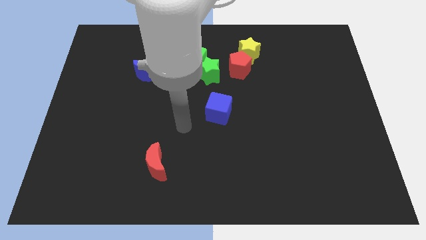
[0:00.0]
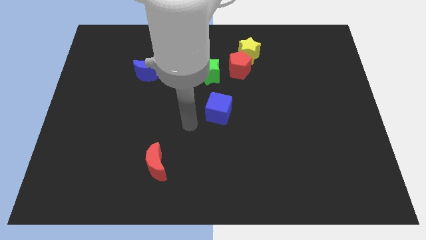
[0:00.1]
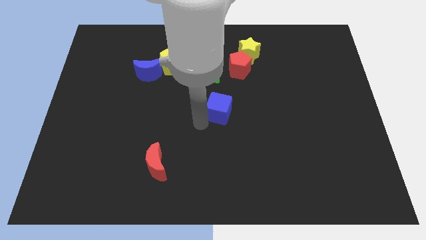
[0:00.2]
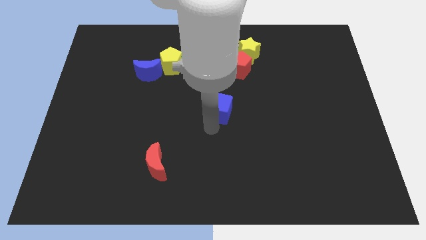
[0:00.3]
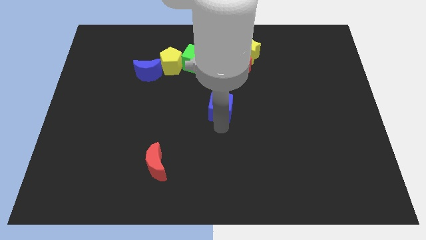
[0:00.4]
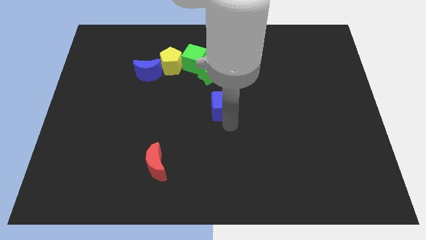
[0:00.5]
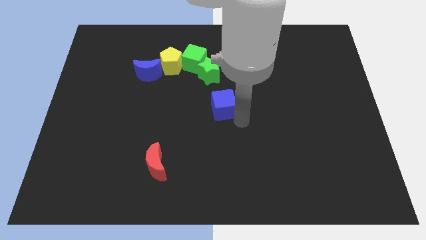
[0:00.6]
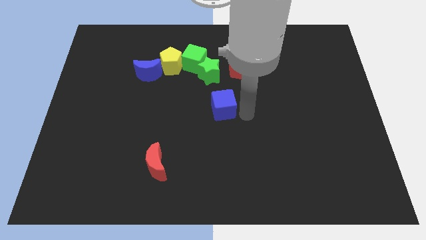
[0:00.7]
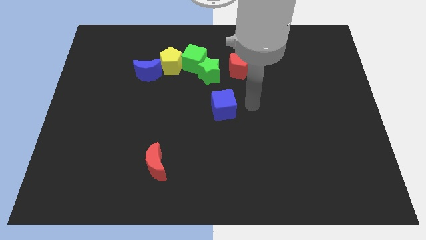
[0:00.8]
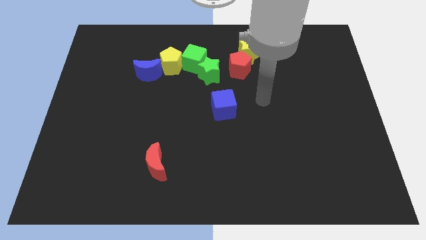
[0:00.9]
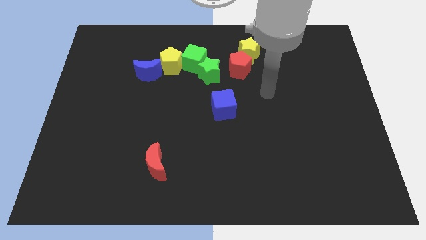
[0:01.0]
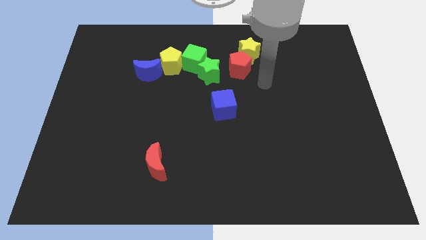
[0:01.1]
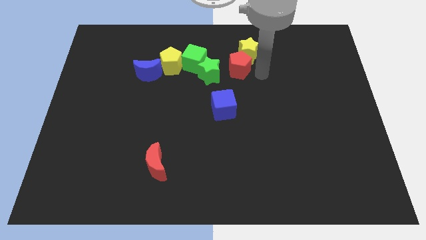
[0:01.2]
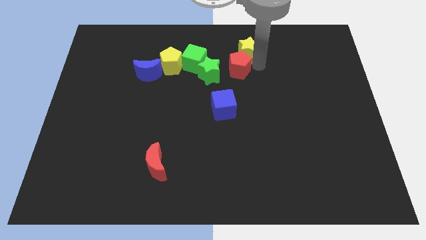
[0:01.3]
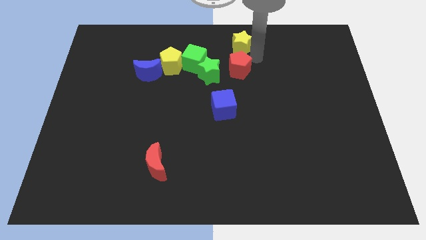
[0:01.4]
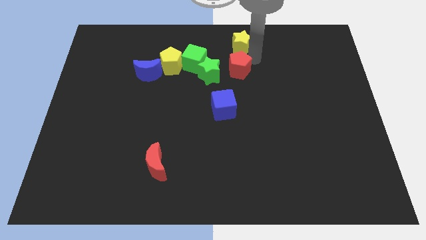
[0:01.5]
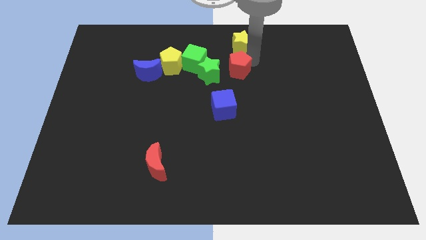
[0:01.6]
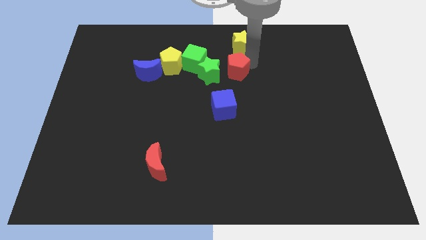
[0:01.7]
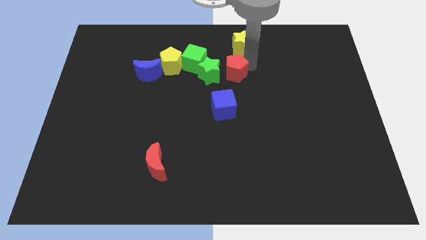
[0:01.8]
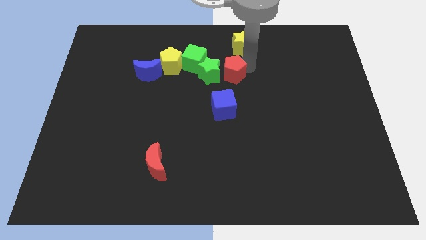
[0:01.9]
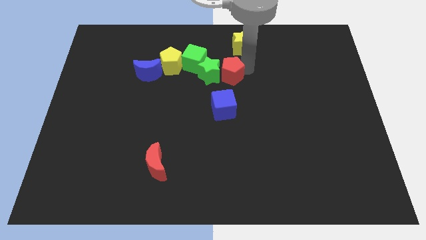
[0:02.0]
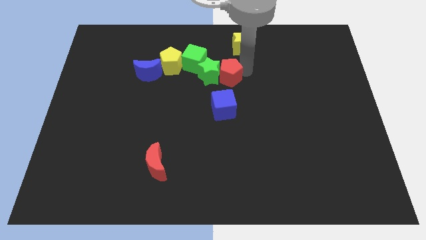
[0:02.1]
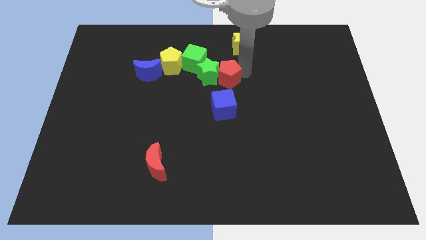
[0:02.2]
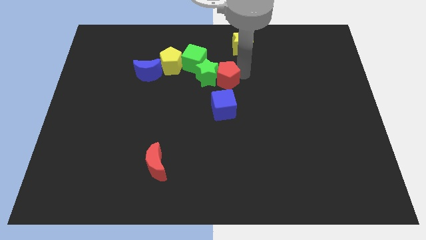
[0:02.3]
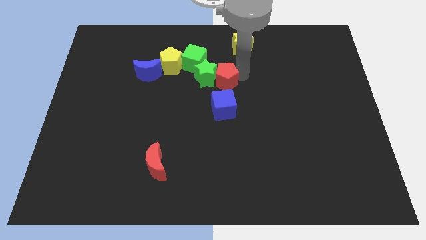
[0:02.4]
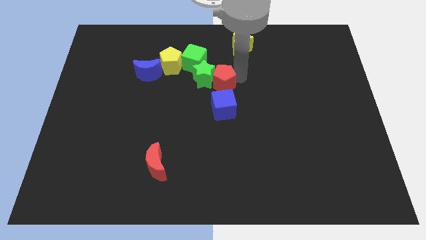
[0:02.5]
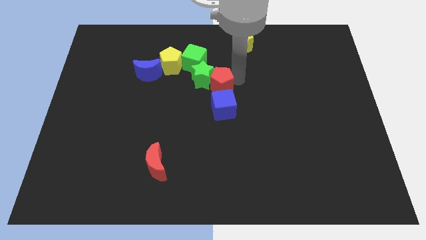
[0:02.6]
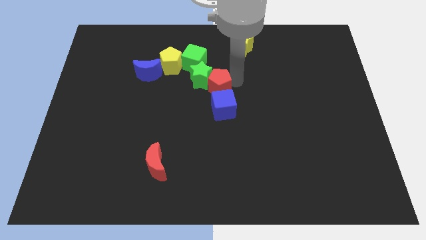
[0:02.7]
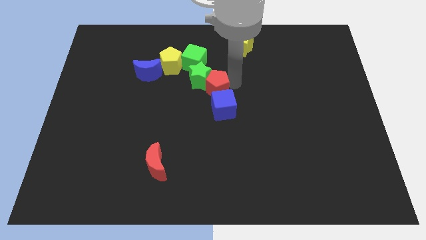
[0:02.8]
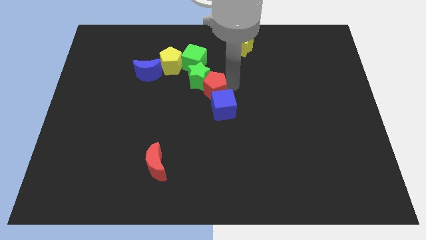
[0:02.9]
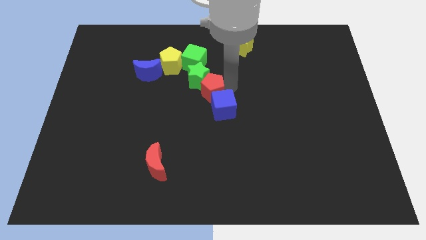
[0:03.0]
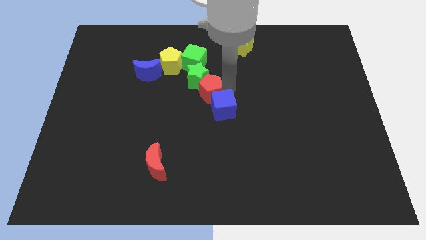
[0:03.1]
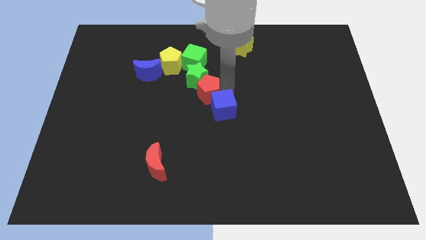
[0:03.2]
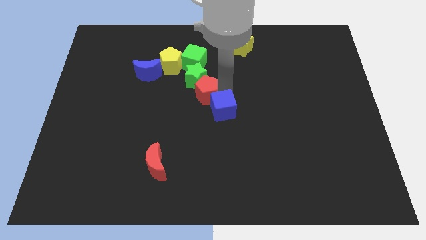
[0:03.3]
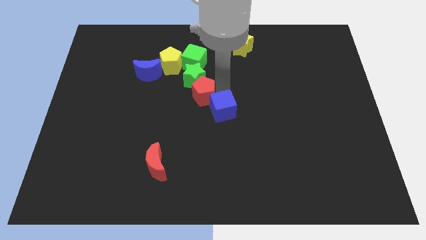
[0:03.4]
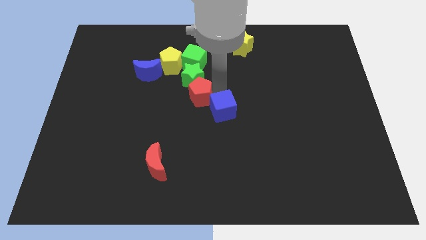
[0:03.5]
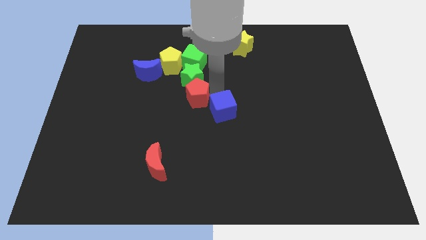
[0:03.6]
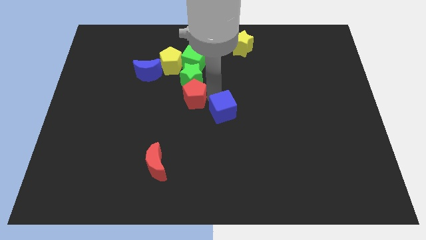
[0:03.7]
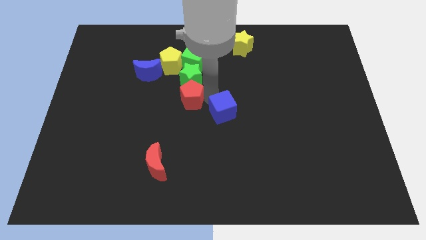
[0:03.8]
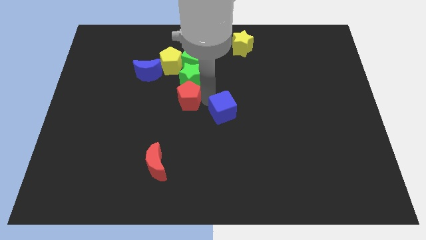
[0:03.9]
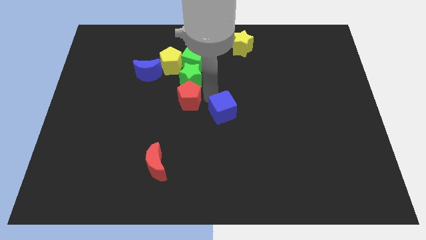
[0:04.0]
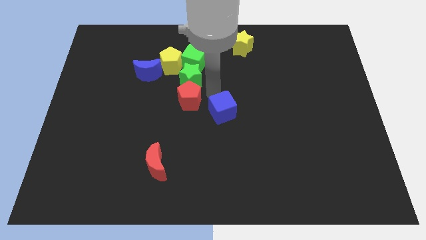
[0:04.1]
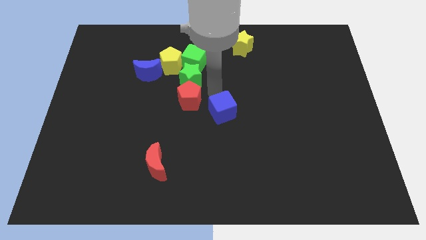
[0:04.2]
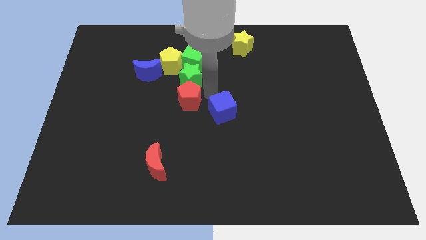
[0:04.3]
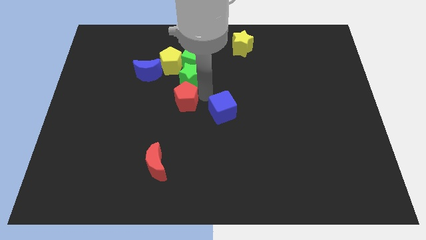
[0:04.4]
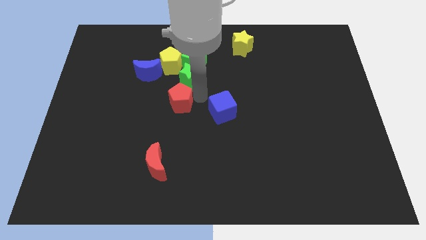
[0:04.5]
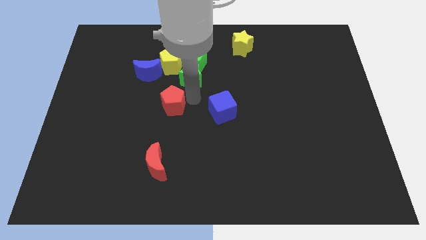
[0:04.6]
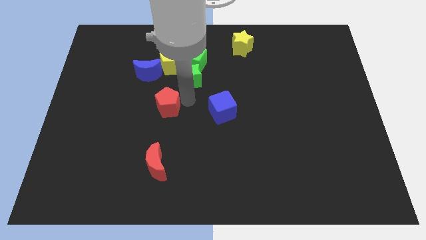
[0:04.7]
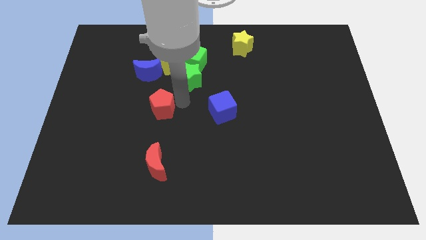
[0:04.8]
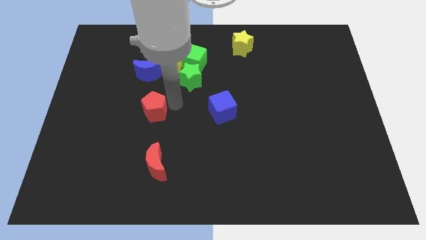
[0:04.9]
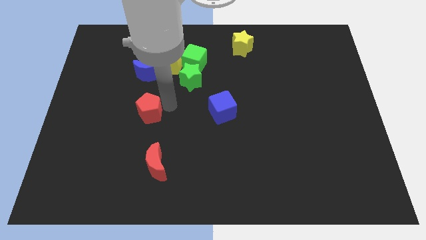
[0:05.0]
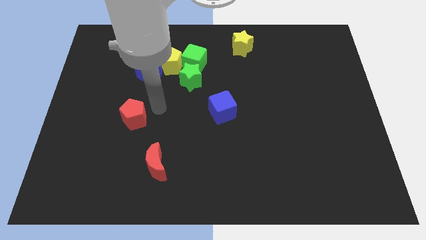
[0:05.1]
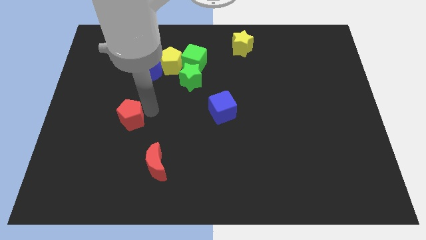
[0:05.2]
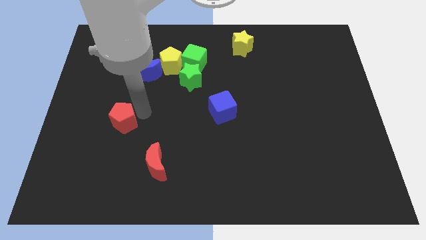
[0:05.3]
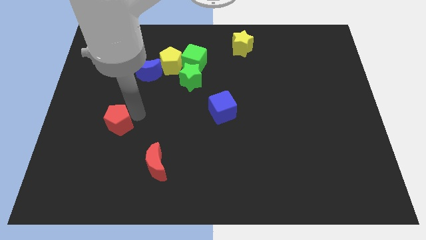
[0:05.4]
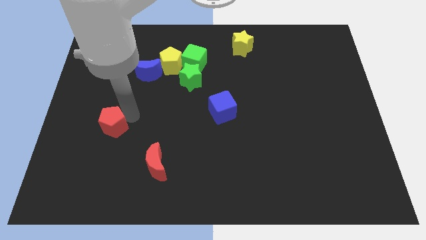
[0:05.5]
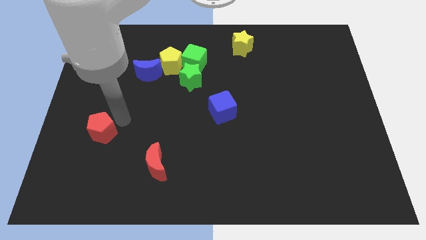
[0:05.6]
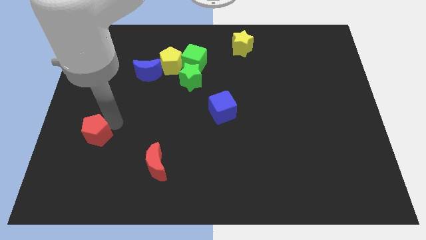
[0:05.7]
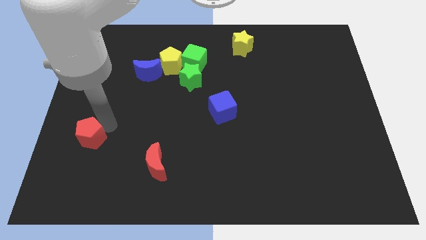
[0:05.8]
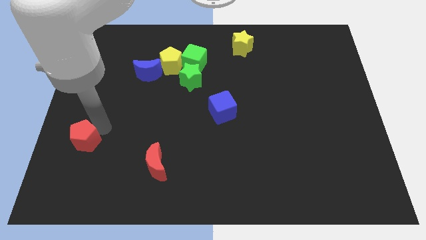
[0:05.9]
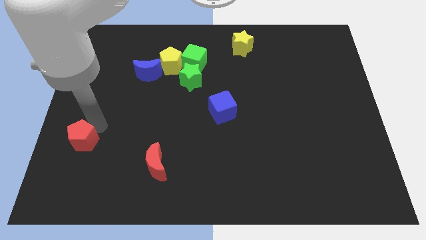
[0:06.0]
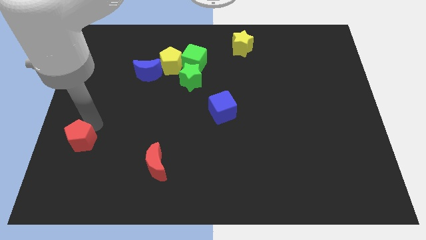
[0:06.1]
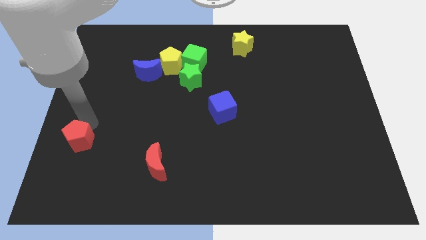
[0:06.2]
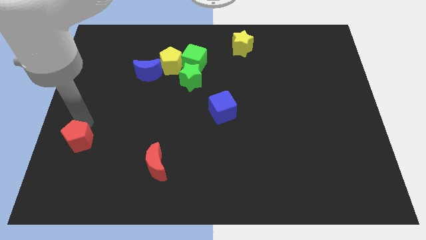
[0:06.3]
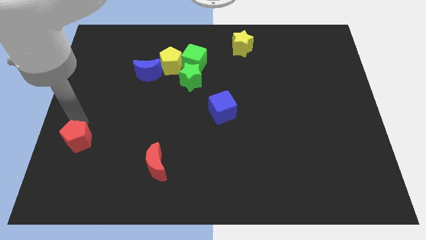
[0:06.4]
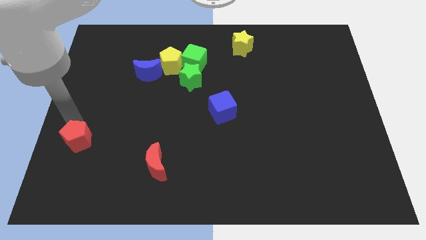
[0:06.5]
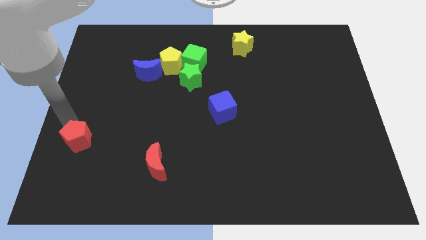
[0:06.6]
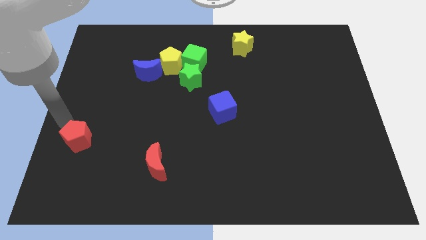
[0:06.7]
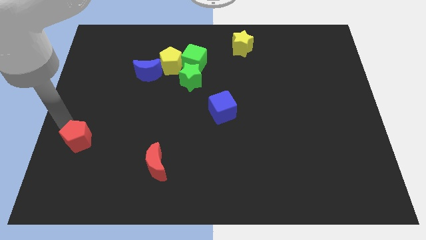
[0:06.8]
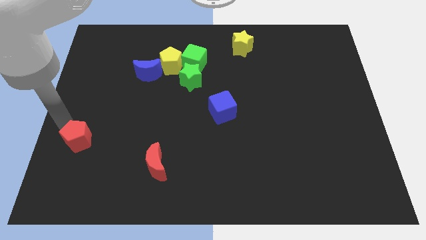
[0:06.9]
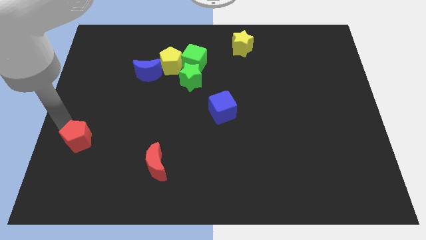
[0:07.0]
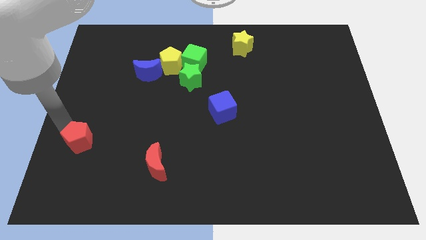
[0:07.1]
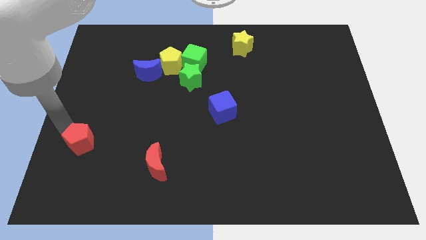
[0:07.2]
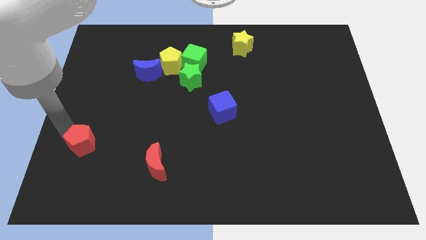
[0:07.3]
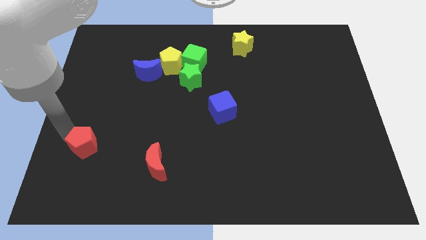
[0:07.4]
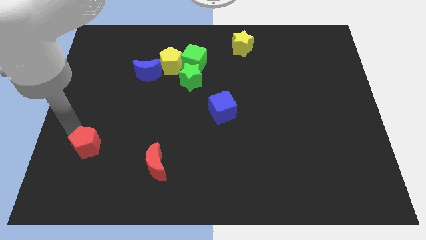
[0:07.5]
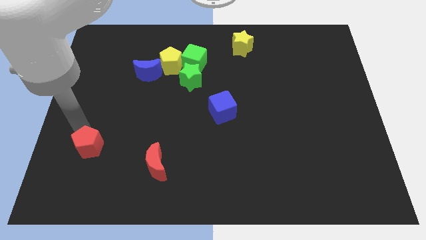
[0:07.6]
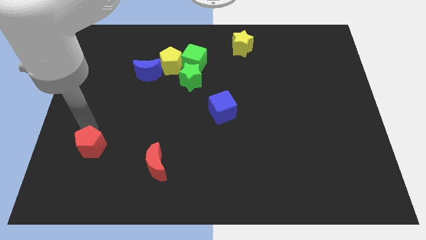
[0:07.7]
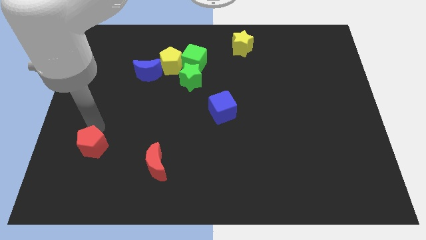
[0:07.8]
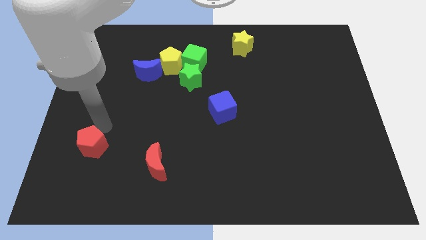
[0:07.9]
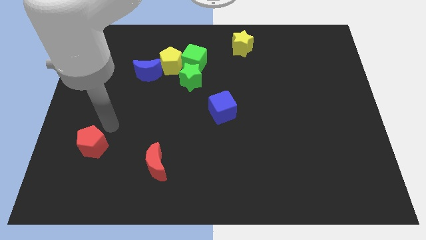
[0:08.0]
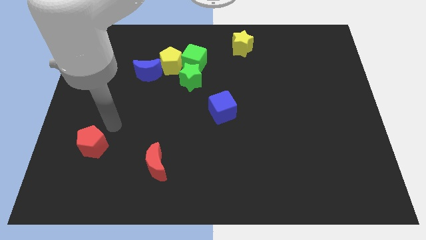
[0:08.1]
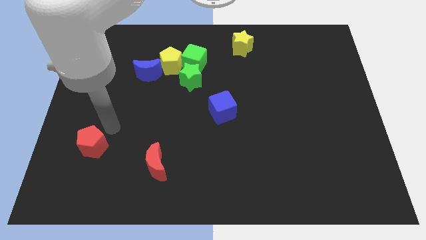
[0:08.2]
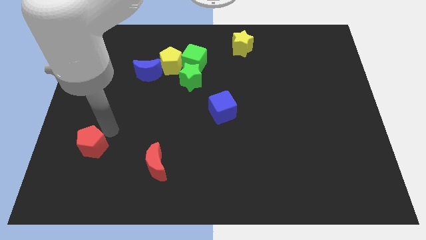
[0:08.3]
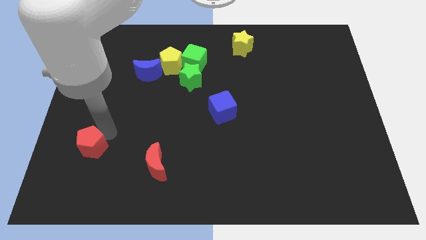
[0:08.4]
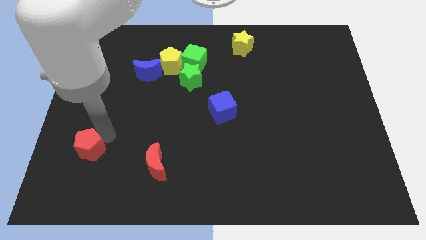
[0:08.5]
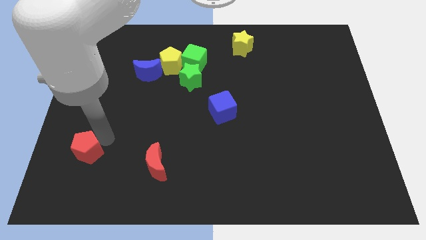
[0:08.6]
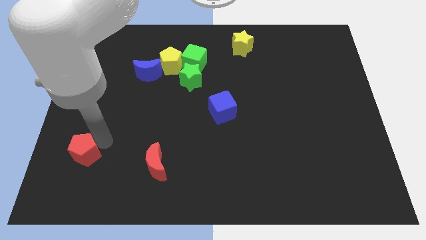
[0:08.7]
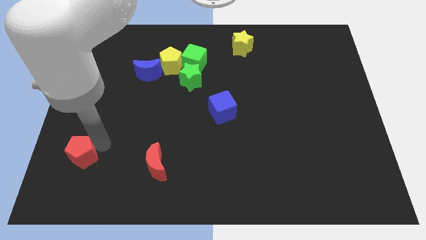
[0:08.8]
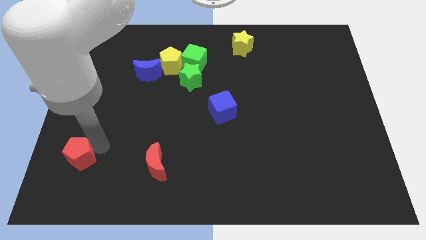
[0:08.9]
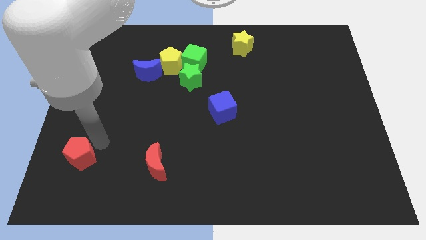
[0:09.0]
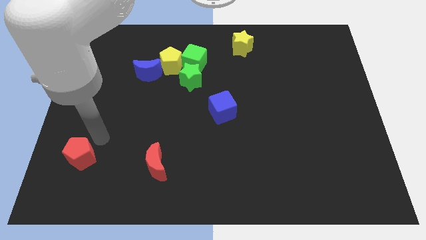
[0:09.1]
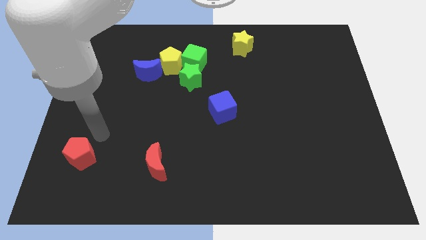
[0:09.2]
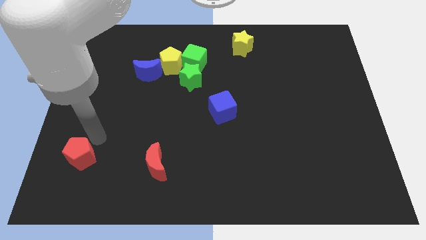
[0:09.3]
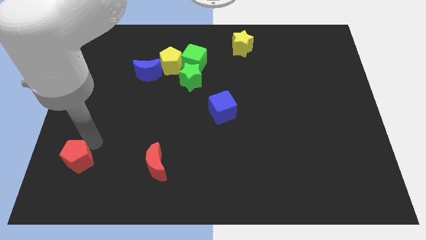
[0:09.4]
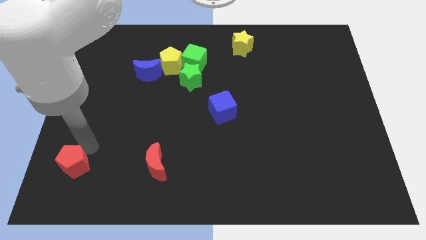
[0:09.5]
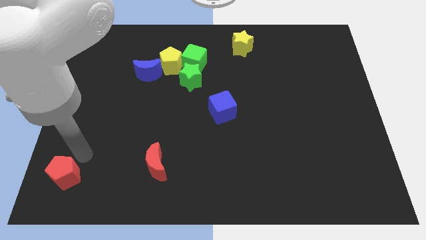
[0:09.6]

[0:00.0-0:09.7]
push the red pentagon to the bottom left
